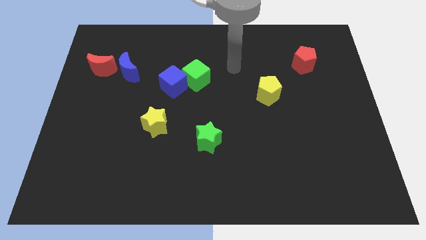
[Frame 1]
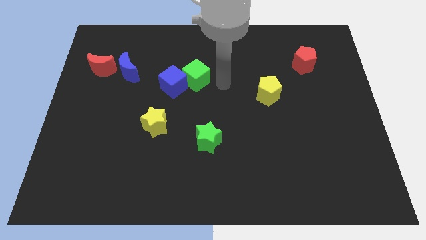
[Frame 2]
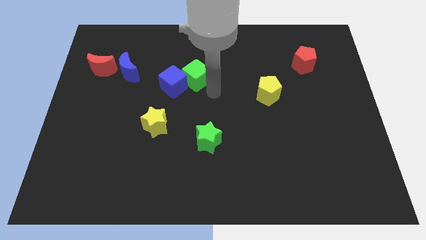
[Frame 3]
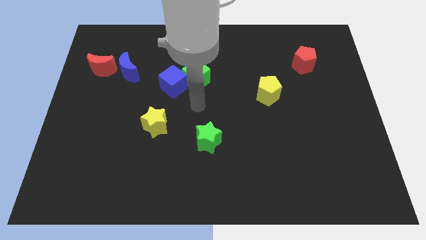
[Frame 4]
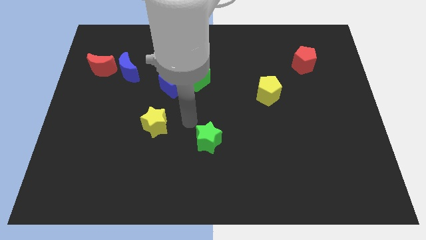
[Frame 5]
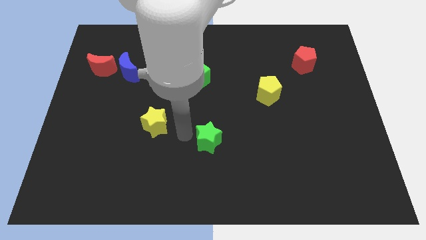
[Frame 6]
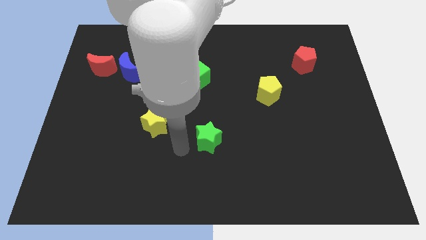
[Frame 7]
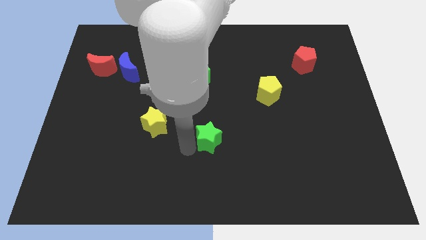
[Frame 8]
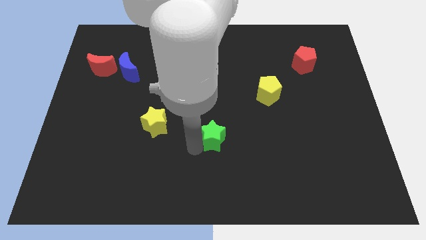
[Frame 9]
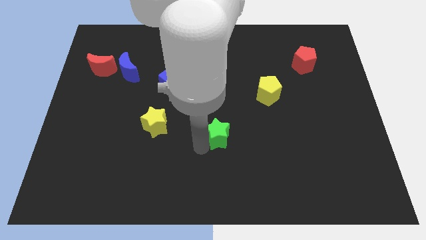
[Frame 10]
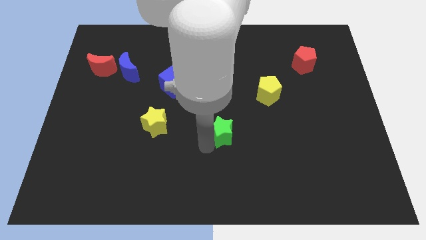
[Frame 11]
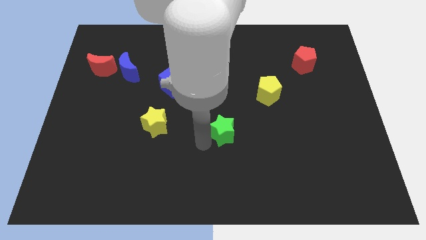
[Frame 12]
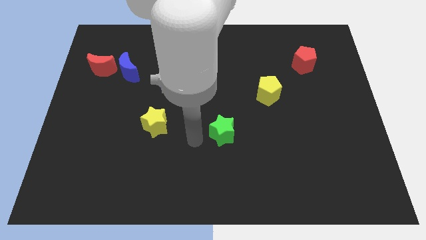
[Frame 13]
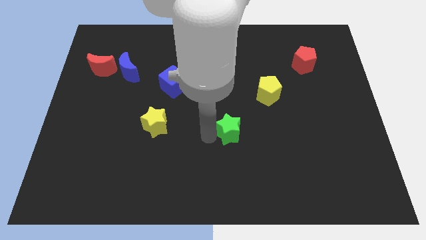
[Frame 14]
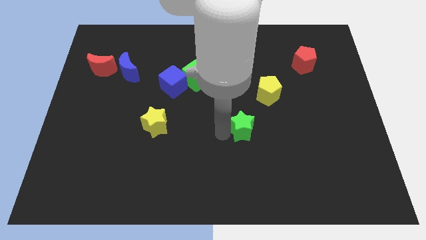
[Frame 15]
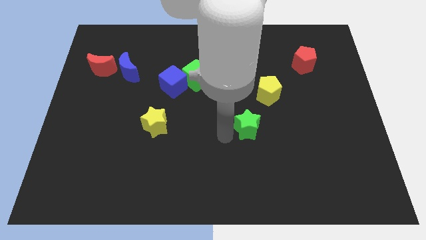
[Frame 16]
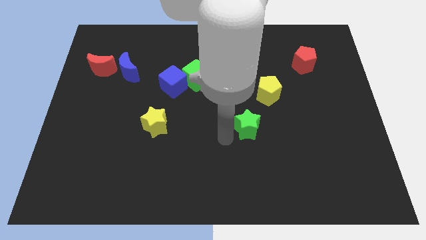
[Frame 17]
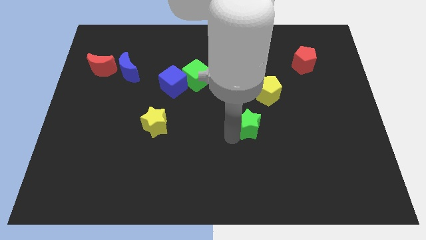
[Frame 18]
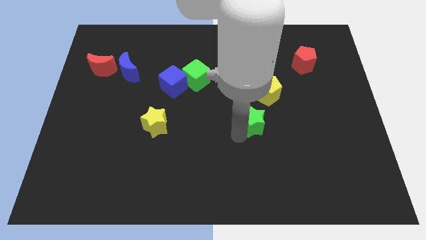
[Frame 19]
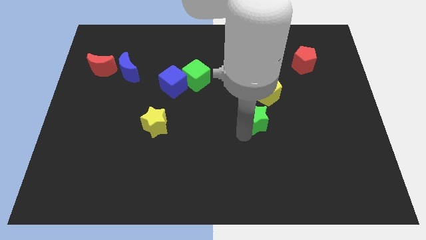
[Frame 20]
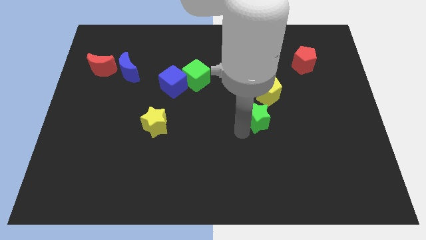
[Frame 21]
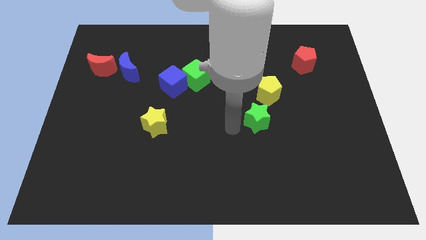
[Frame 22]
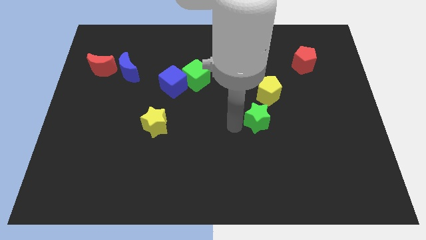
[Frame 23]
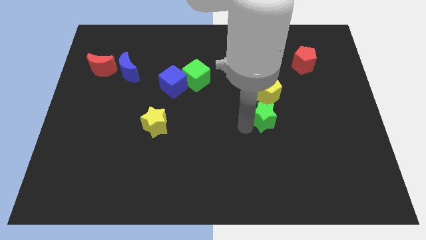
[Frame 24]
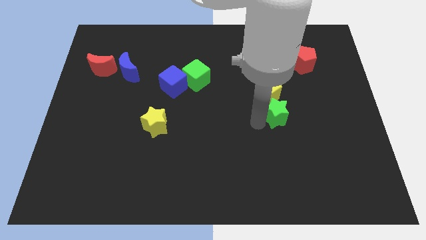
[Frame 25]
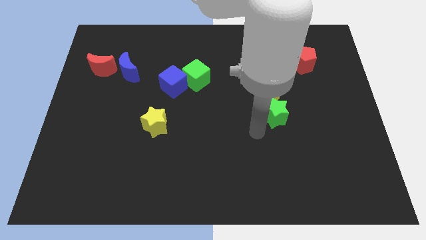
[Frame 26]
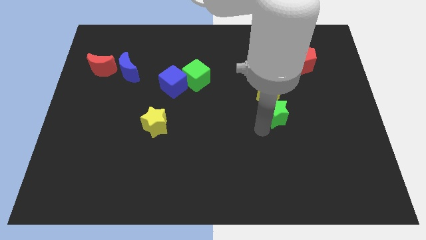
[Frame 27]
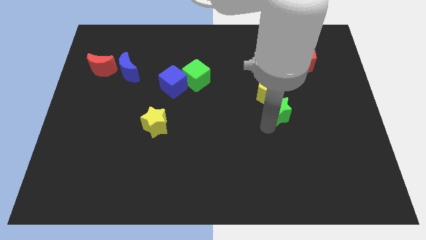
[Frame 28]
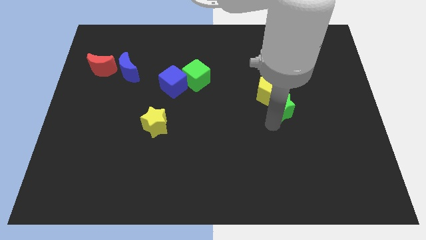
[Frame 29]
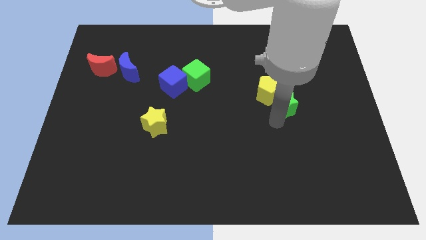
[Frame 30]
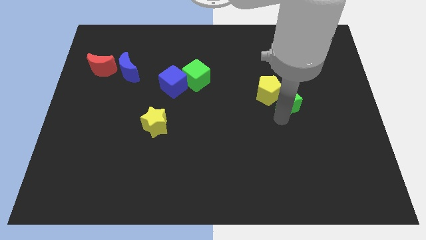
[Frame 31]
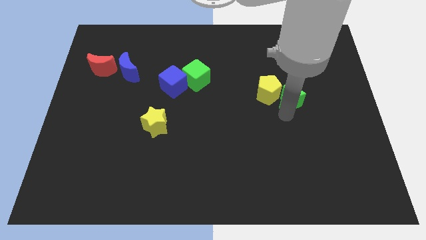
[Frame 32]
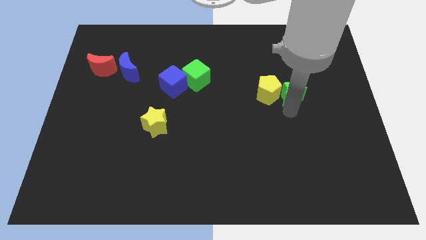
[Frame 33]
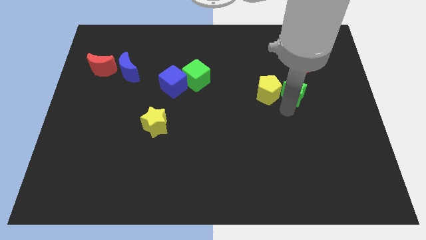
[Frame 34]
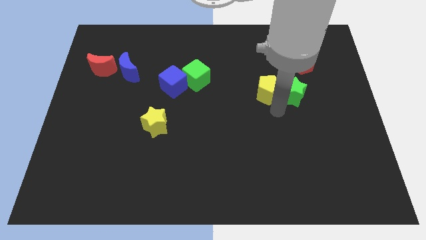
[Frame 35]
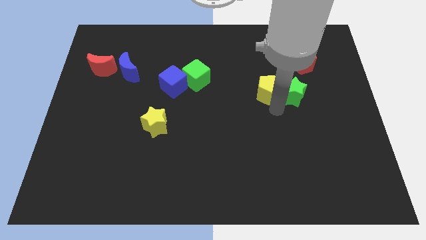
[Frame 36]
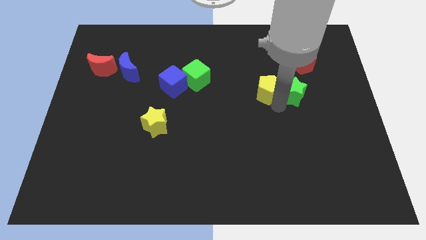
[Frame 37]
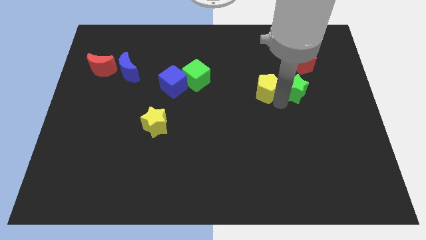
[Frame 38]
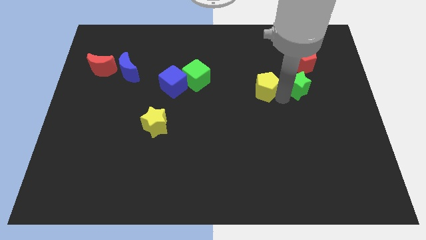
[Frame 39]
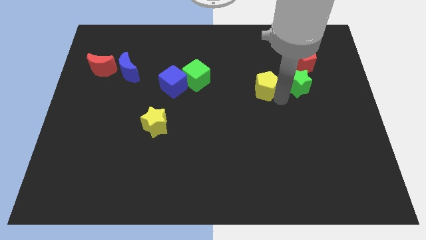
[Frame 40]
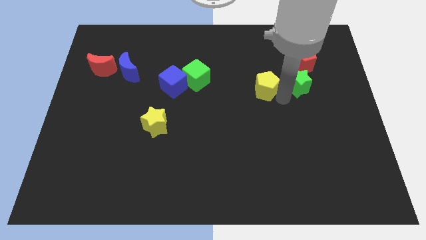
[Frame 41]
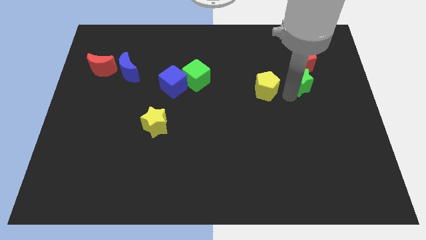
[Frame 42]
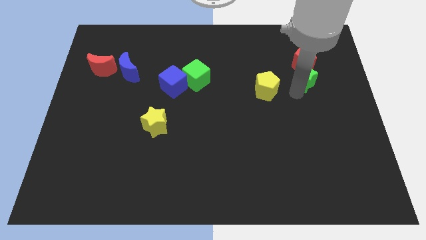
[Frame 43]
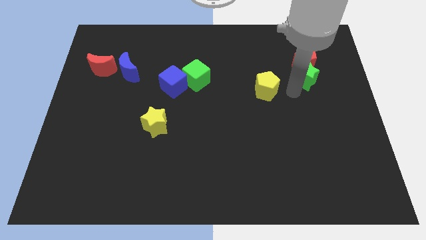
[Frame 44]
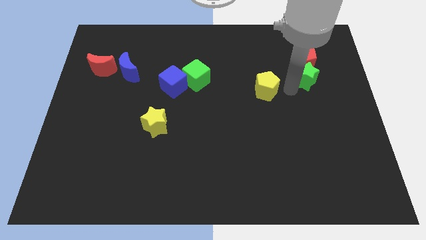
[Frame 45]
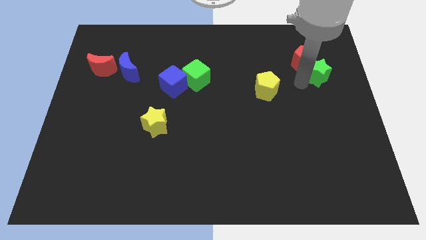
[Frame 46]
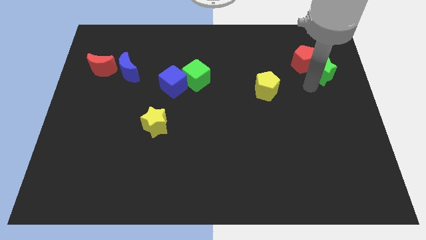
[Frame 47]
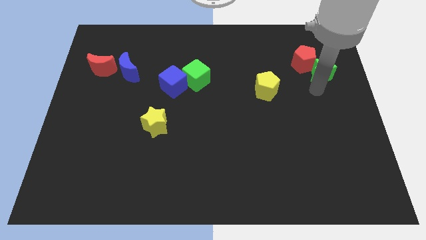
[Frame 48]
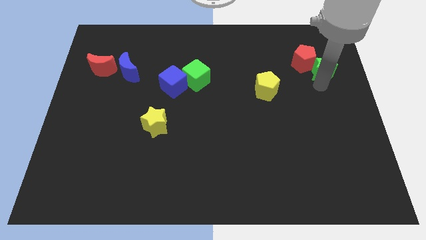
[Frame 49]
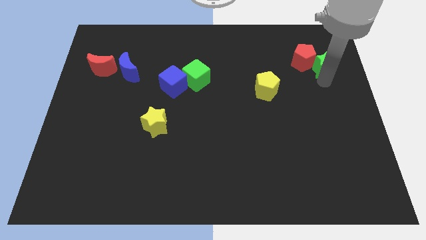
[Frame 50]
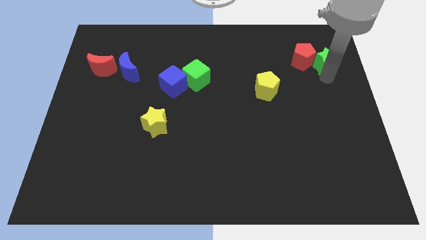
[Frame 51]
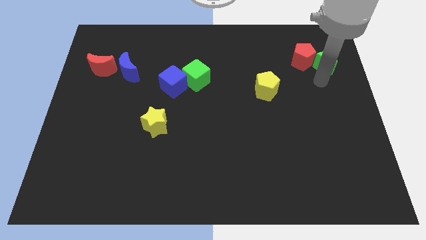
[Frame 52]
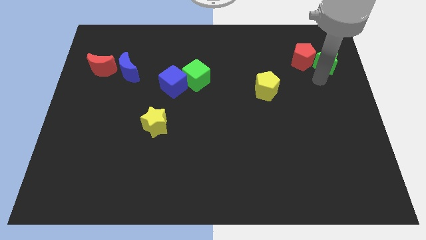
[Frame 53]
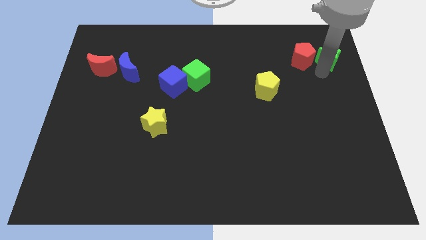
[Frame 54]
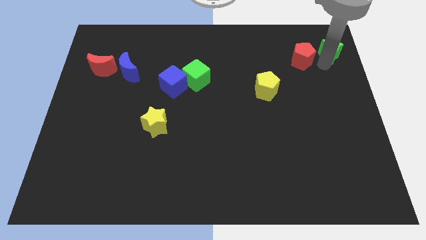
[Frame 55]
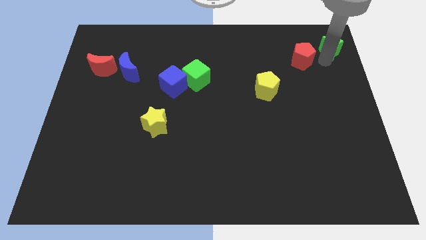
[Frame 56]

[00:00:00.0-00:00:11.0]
put the green star to the top right corner

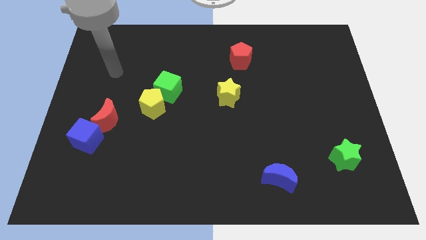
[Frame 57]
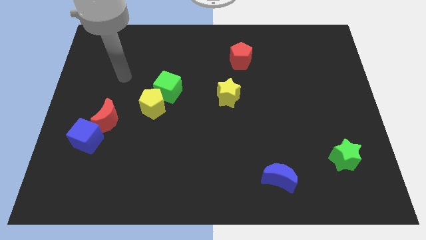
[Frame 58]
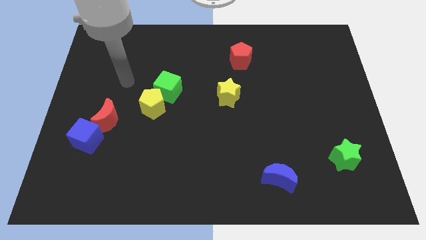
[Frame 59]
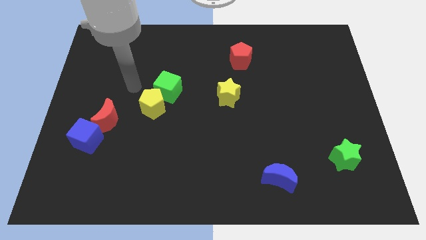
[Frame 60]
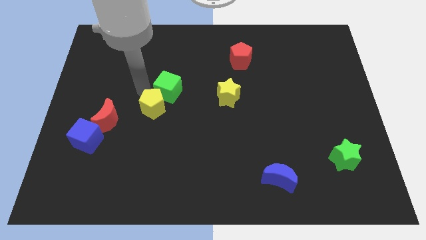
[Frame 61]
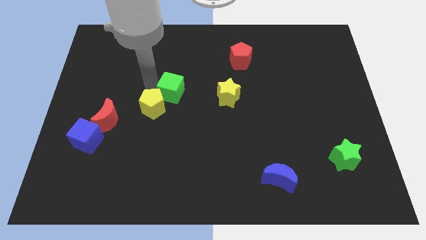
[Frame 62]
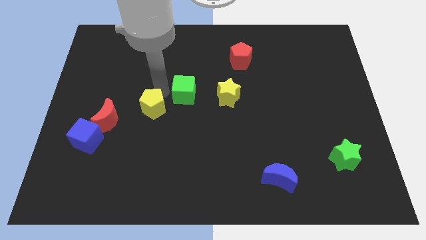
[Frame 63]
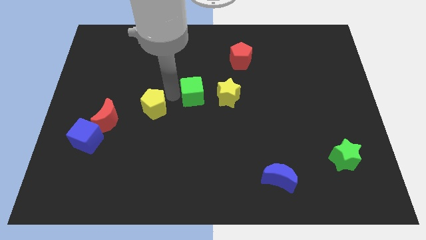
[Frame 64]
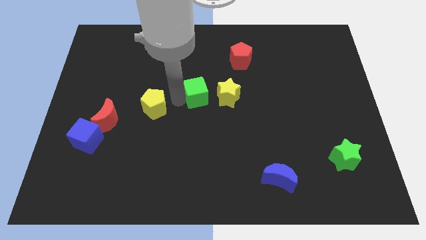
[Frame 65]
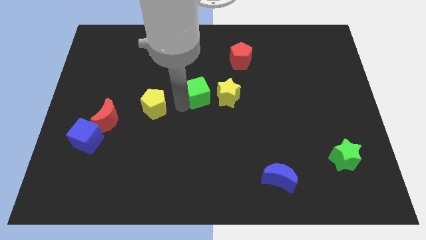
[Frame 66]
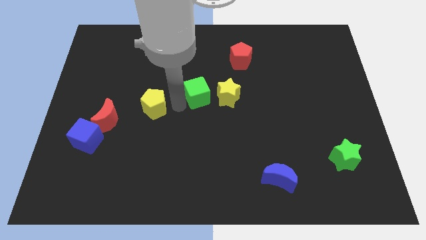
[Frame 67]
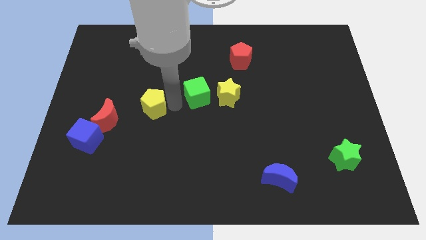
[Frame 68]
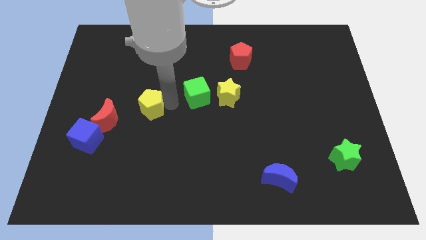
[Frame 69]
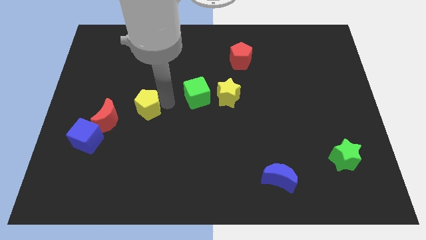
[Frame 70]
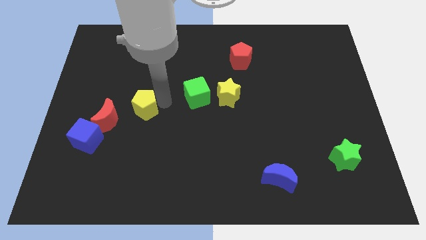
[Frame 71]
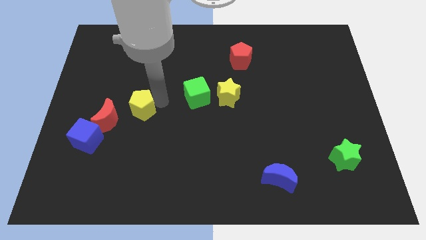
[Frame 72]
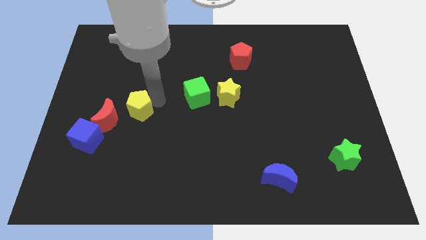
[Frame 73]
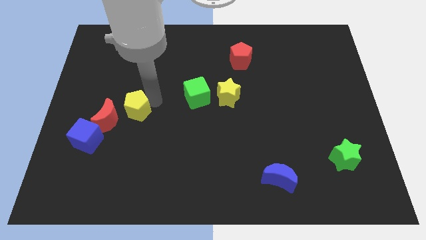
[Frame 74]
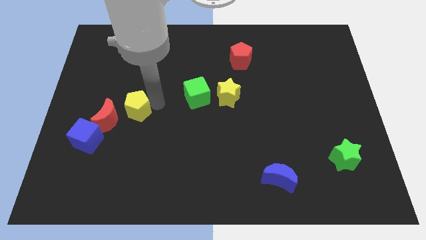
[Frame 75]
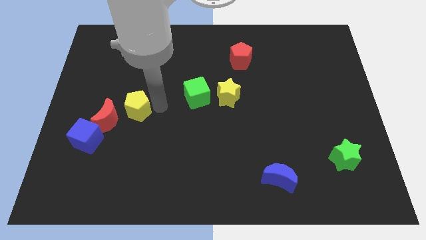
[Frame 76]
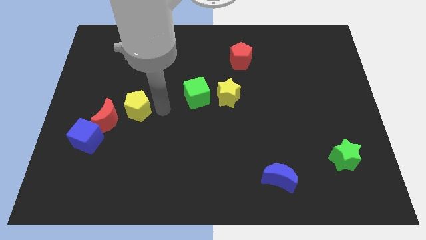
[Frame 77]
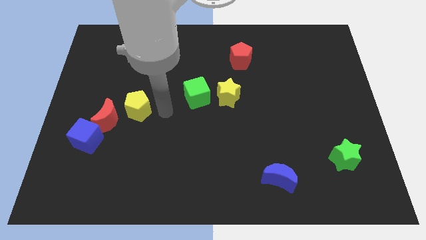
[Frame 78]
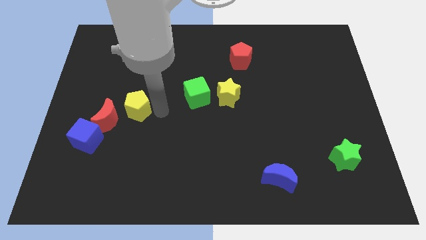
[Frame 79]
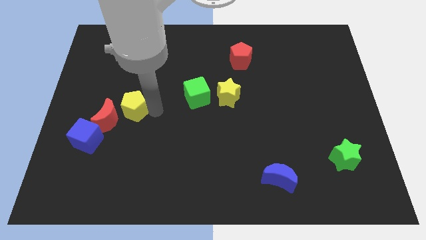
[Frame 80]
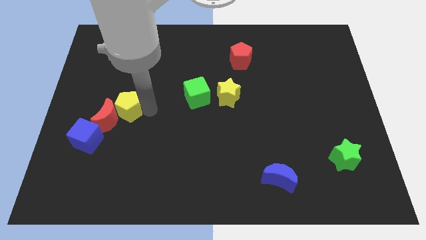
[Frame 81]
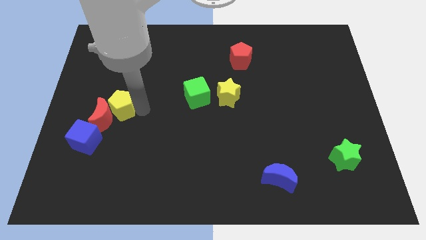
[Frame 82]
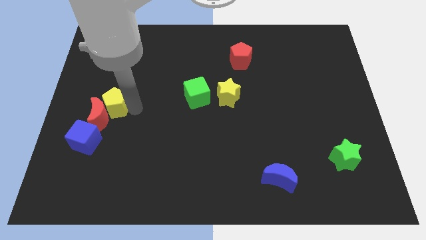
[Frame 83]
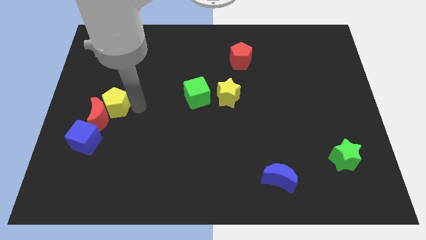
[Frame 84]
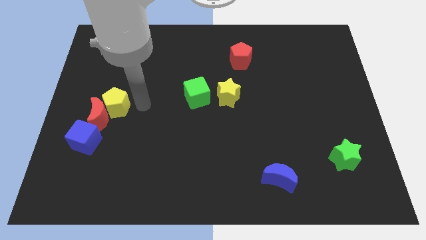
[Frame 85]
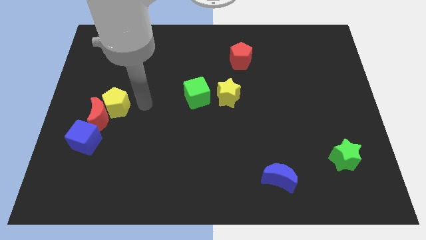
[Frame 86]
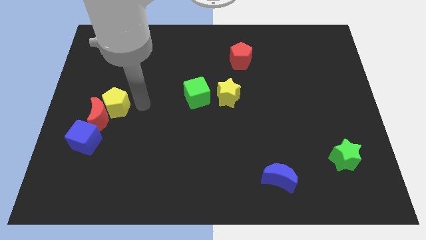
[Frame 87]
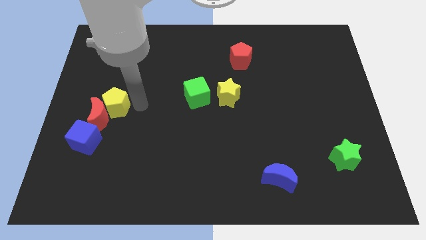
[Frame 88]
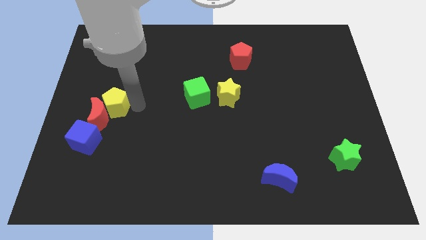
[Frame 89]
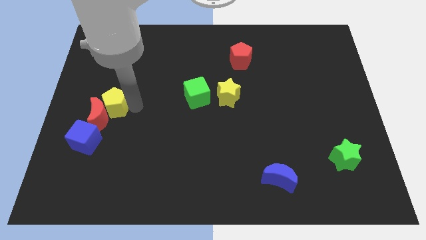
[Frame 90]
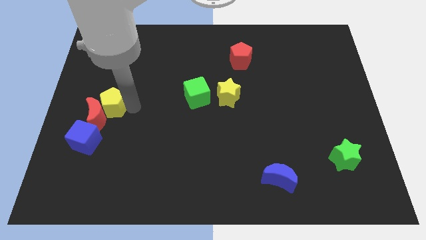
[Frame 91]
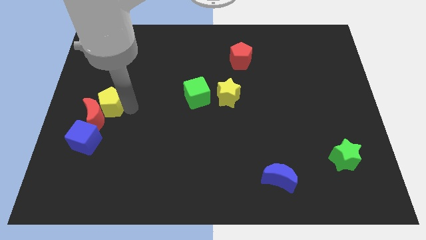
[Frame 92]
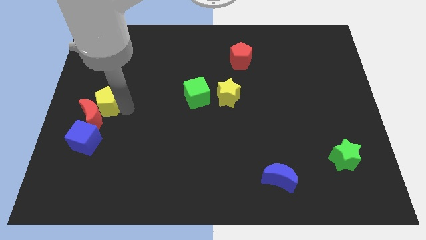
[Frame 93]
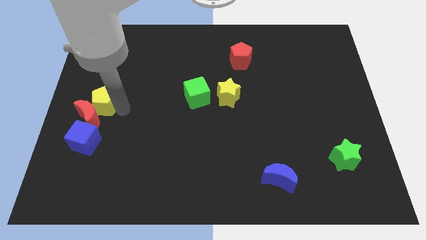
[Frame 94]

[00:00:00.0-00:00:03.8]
push the yellow pentagon to the left side of the board
